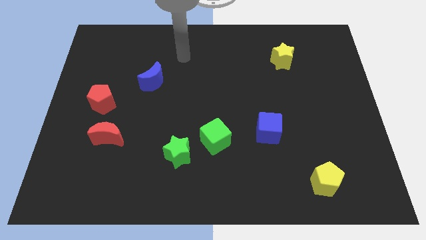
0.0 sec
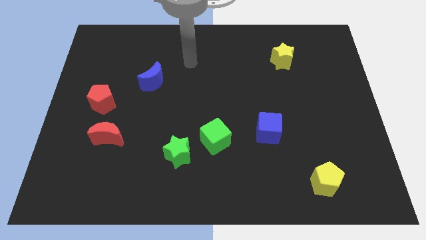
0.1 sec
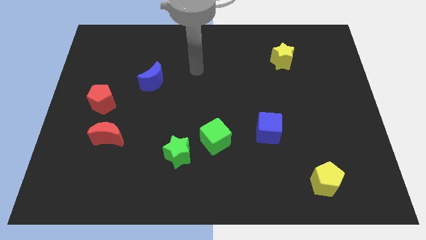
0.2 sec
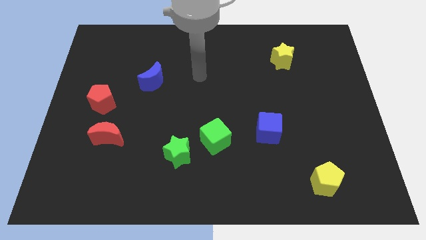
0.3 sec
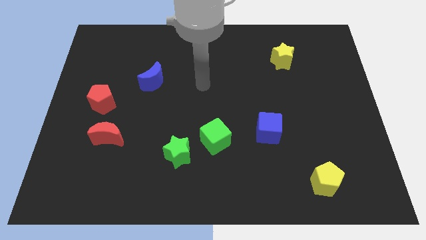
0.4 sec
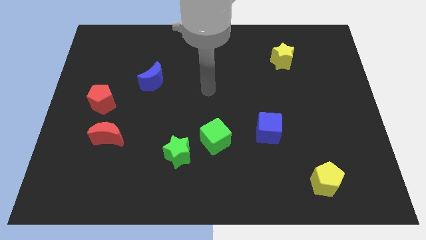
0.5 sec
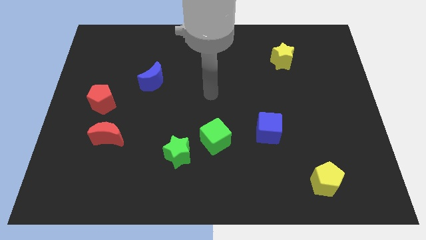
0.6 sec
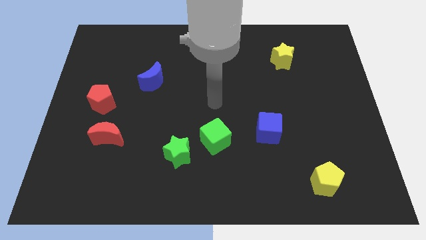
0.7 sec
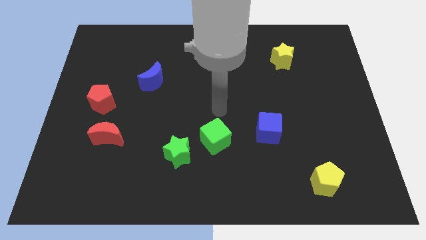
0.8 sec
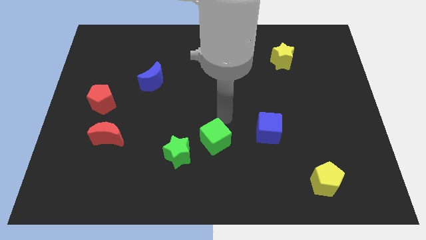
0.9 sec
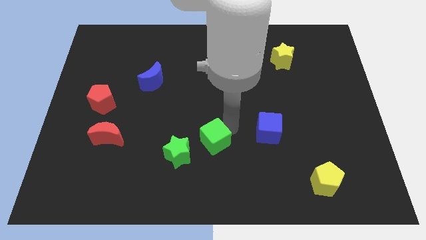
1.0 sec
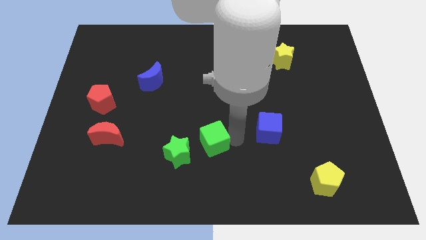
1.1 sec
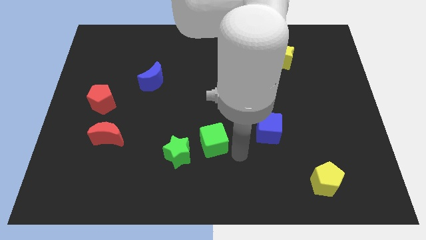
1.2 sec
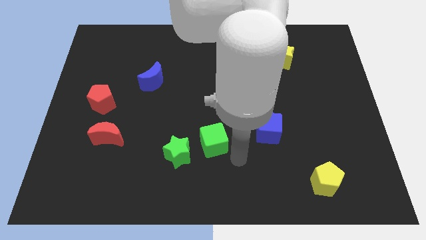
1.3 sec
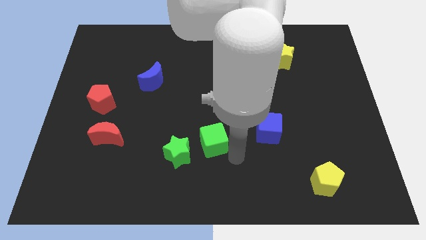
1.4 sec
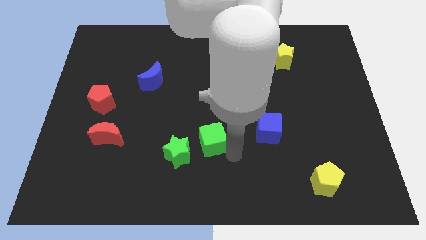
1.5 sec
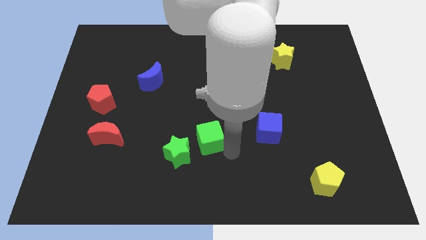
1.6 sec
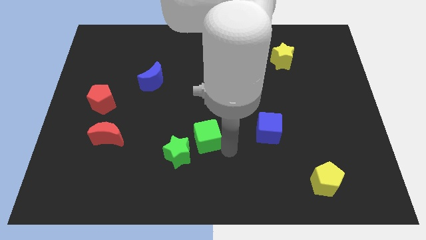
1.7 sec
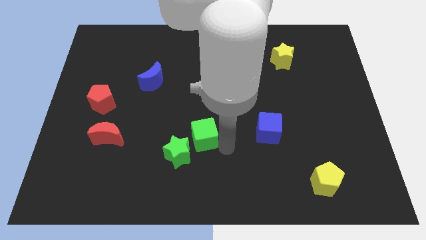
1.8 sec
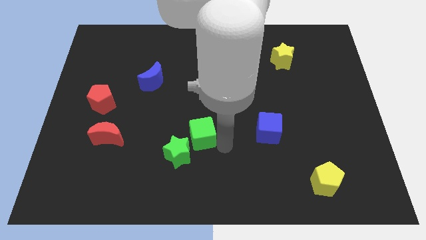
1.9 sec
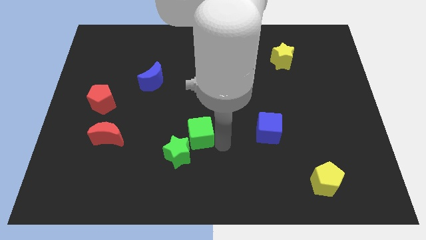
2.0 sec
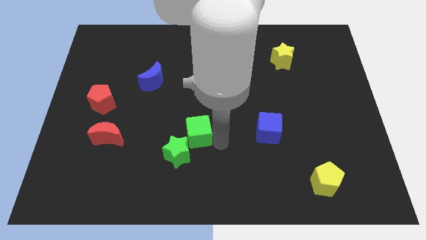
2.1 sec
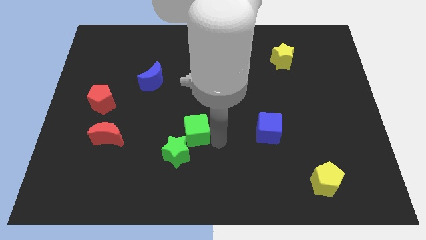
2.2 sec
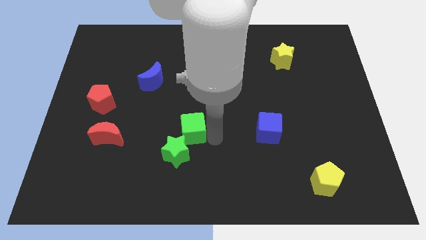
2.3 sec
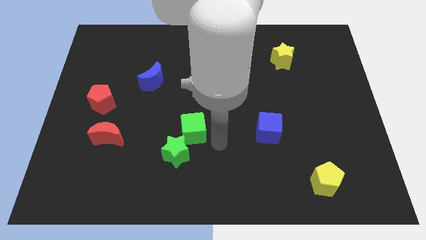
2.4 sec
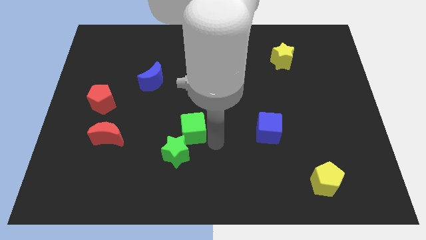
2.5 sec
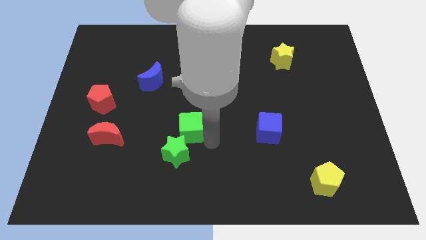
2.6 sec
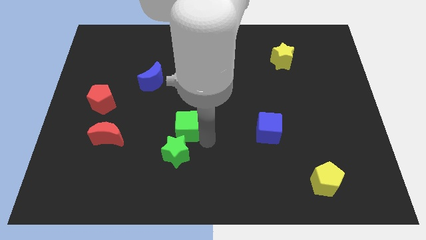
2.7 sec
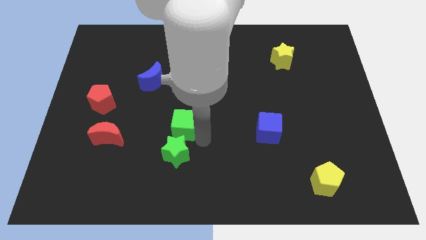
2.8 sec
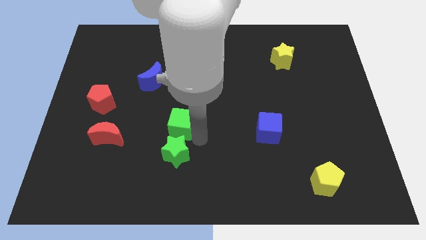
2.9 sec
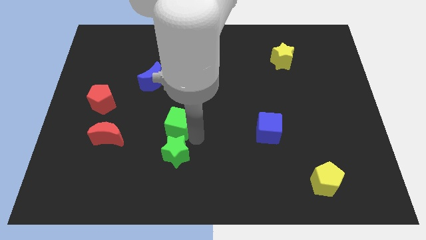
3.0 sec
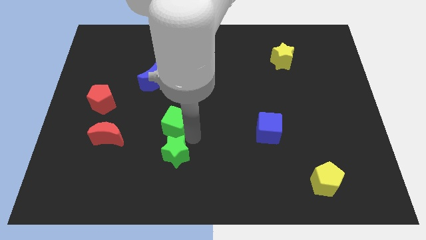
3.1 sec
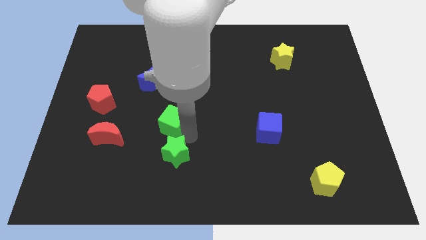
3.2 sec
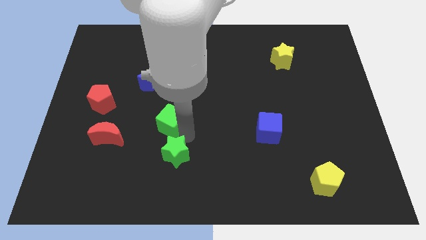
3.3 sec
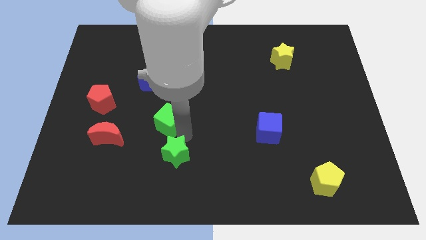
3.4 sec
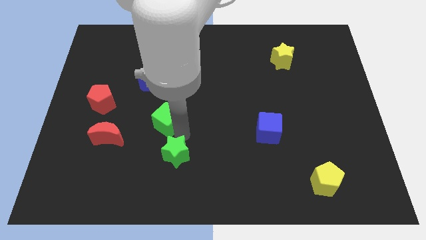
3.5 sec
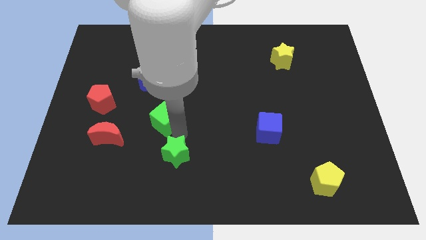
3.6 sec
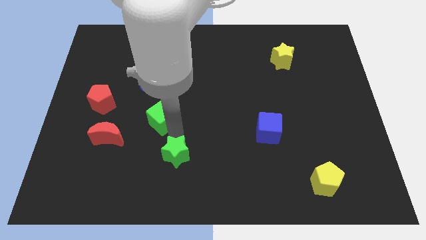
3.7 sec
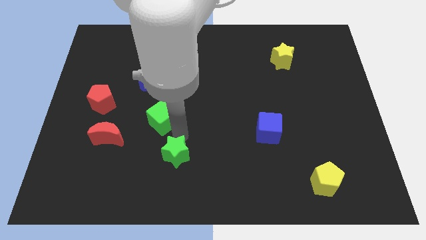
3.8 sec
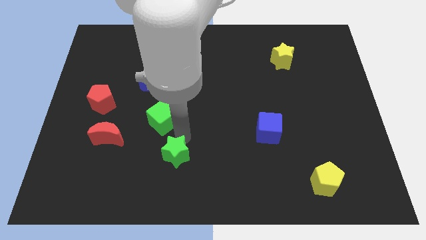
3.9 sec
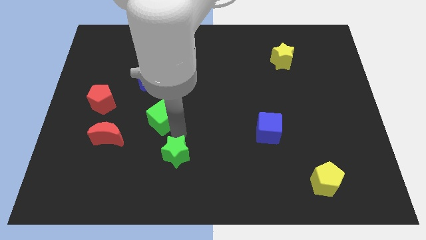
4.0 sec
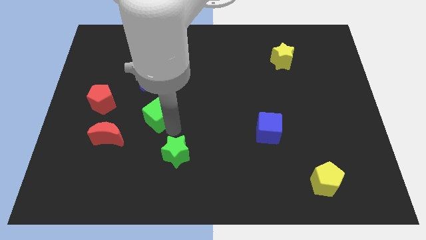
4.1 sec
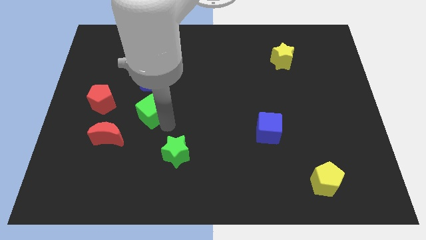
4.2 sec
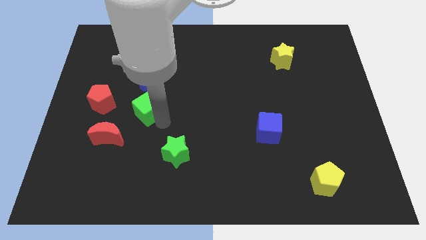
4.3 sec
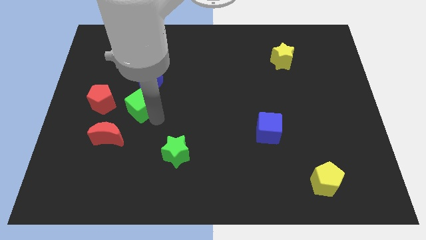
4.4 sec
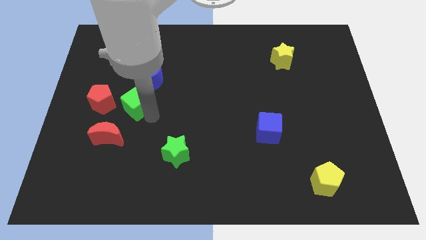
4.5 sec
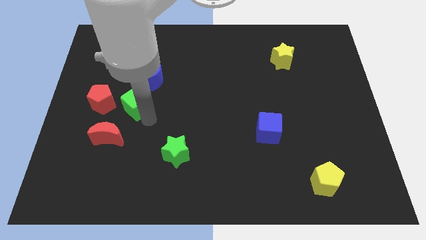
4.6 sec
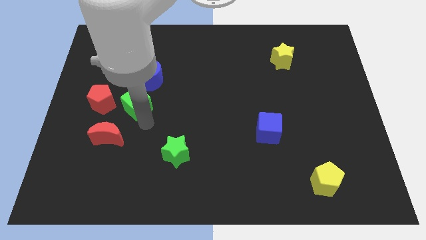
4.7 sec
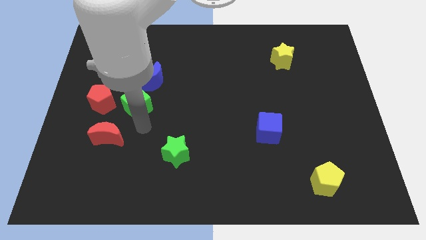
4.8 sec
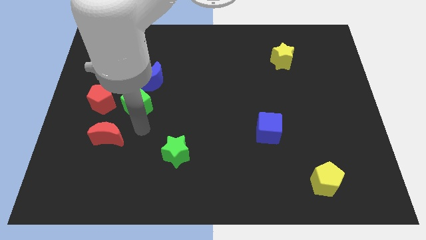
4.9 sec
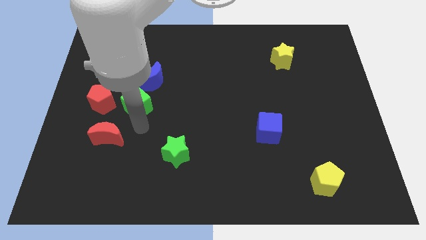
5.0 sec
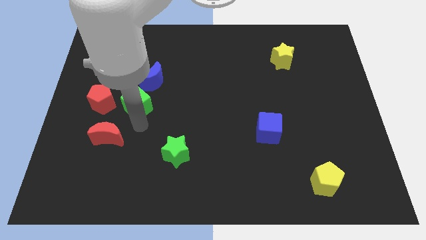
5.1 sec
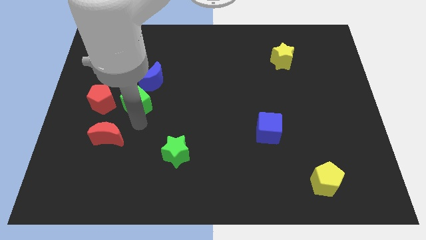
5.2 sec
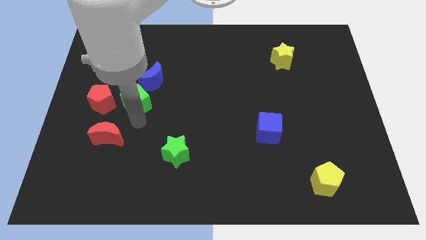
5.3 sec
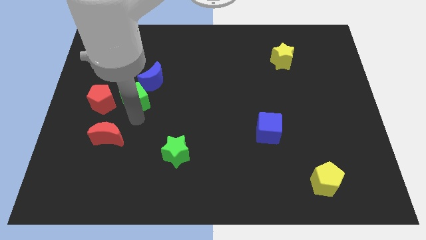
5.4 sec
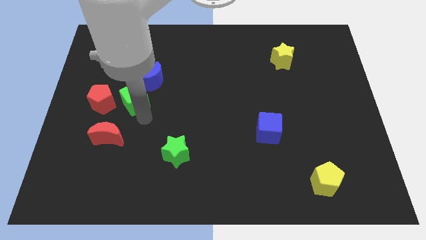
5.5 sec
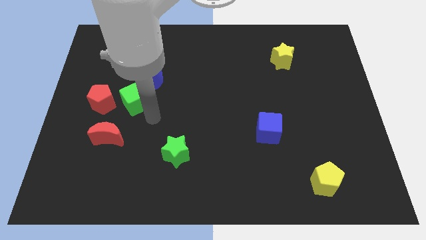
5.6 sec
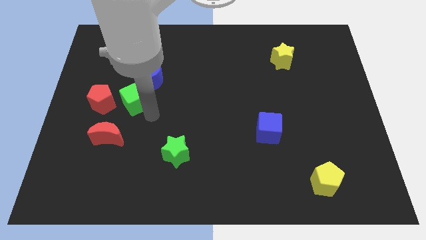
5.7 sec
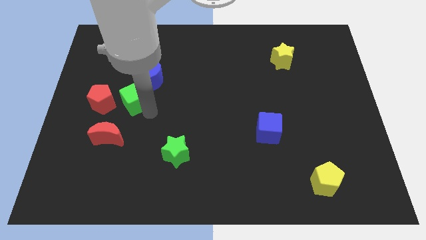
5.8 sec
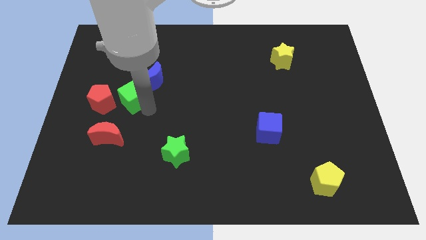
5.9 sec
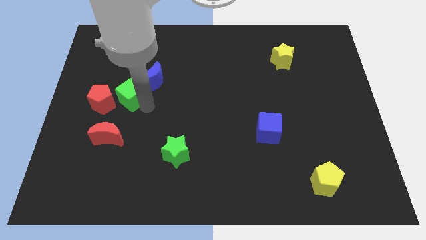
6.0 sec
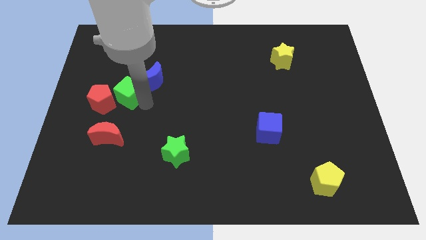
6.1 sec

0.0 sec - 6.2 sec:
put the green cube to the left of the blue moon
